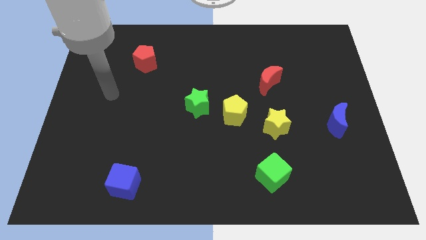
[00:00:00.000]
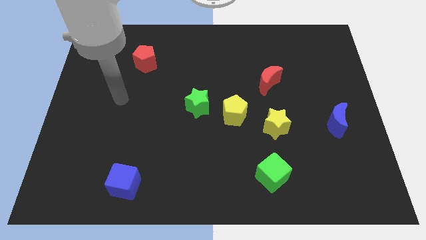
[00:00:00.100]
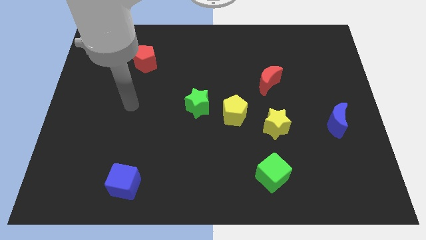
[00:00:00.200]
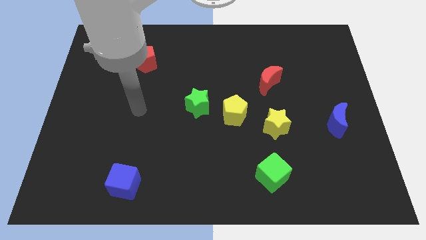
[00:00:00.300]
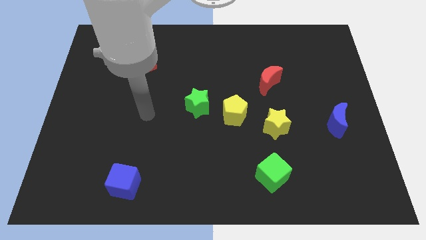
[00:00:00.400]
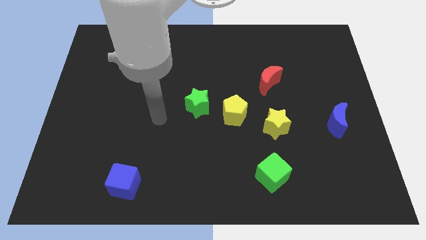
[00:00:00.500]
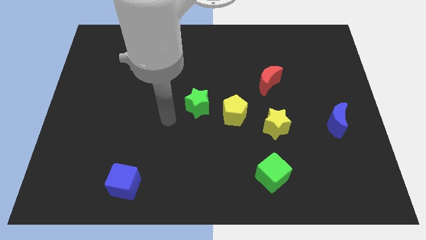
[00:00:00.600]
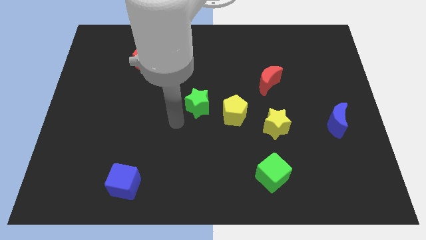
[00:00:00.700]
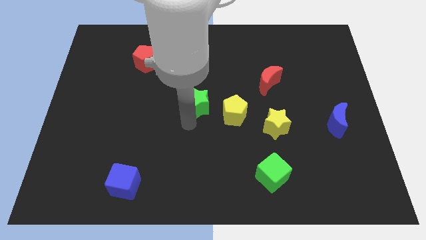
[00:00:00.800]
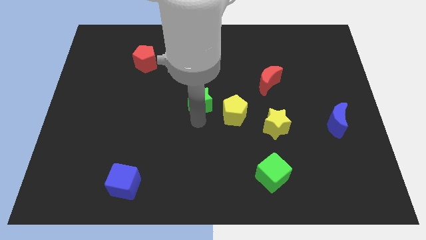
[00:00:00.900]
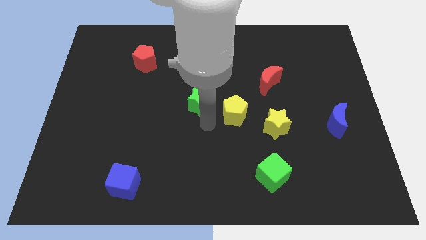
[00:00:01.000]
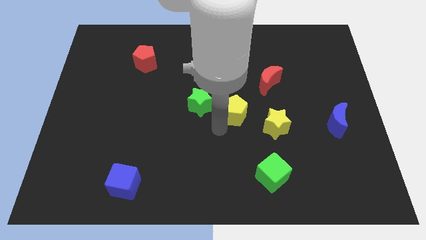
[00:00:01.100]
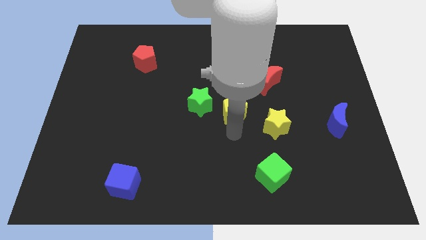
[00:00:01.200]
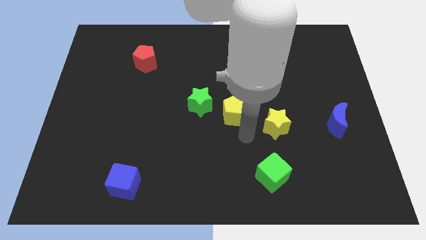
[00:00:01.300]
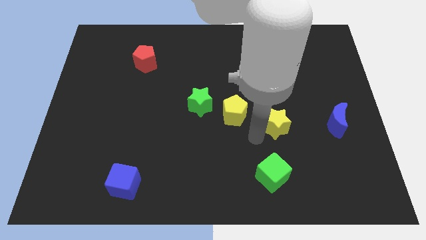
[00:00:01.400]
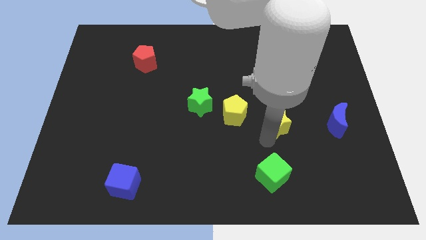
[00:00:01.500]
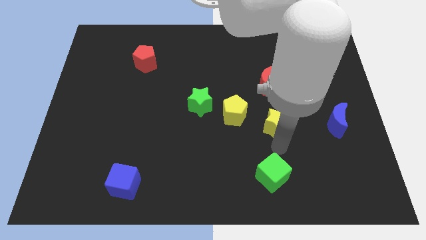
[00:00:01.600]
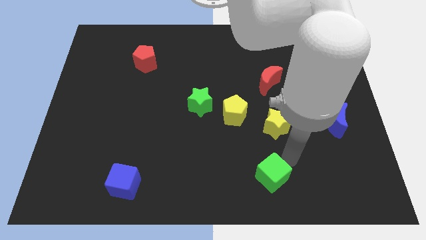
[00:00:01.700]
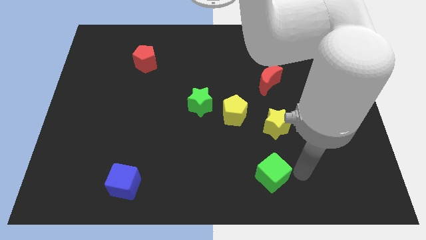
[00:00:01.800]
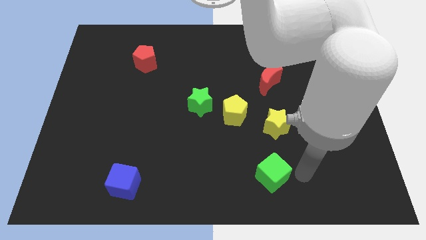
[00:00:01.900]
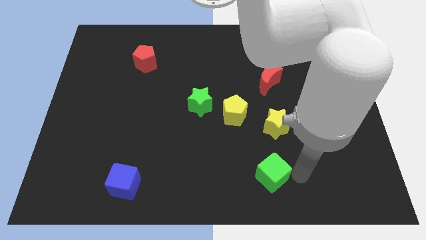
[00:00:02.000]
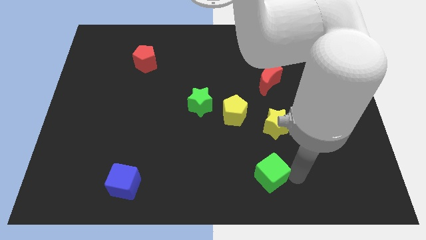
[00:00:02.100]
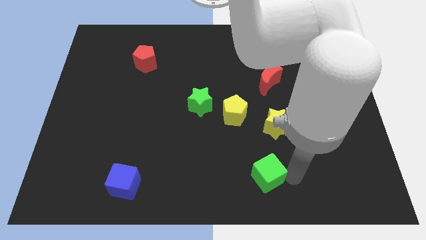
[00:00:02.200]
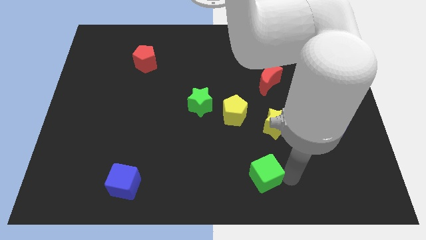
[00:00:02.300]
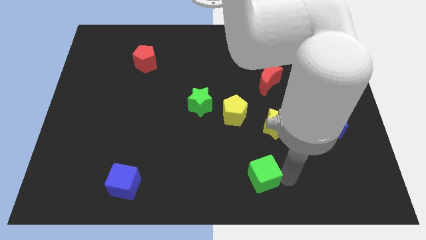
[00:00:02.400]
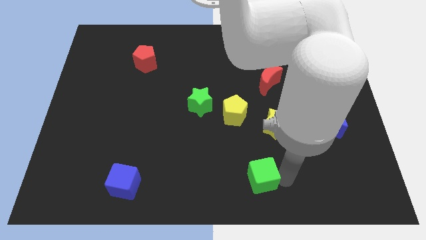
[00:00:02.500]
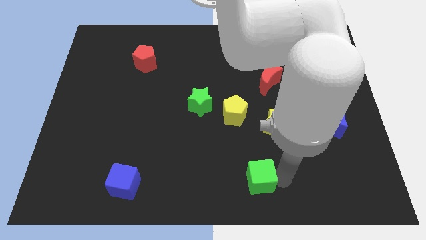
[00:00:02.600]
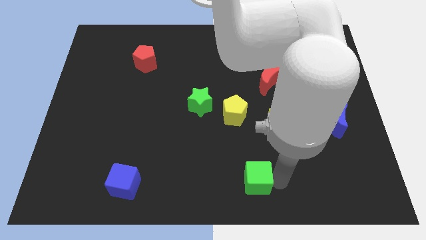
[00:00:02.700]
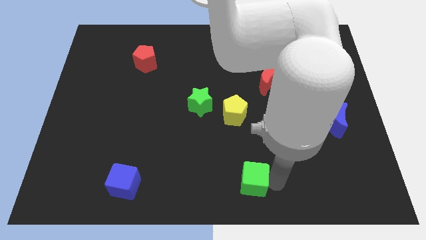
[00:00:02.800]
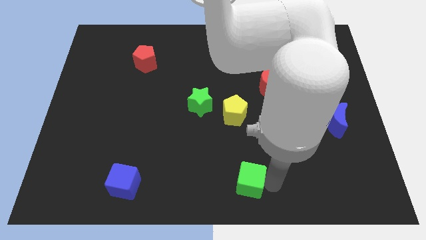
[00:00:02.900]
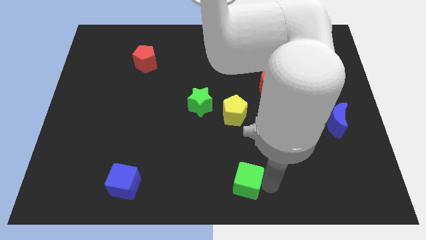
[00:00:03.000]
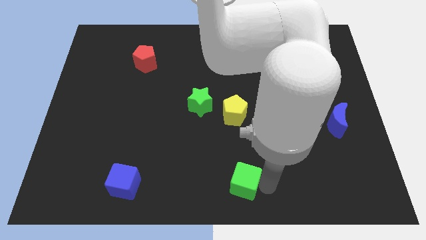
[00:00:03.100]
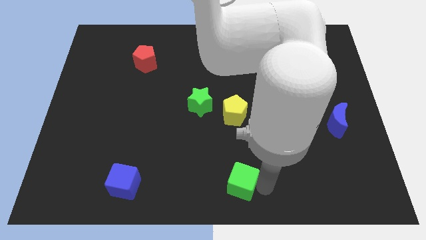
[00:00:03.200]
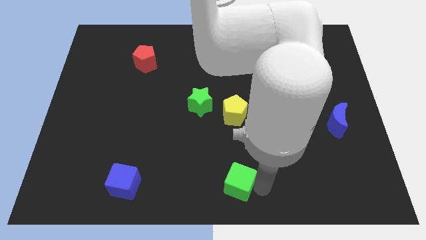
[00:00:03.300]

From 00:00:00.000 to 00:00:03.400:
slide the green cube to the left a little bit

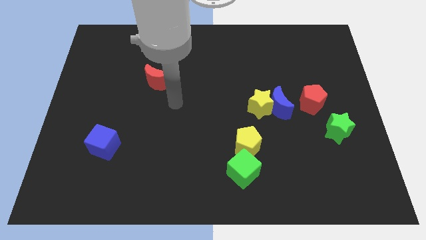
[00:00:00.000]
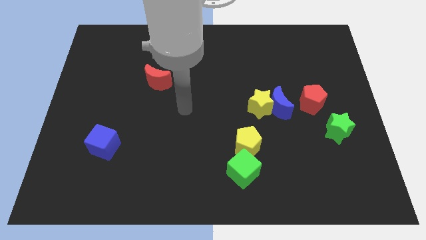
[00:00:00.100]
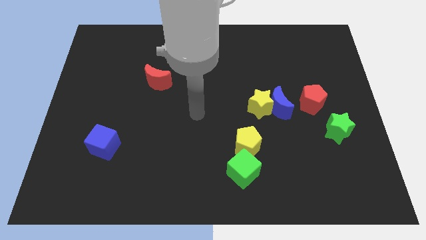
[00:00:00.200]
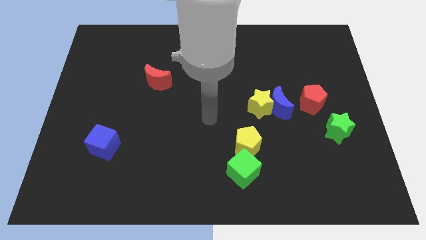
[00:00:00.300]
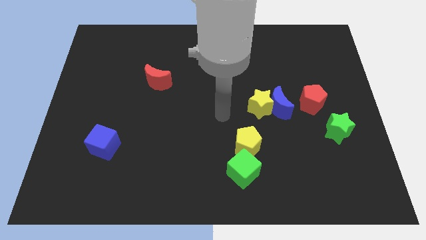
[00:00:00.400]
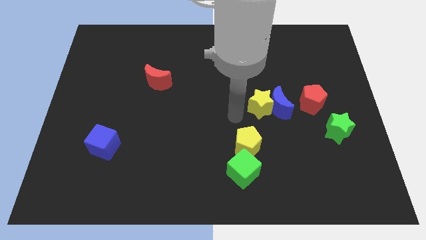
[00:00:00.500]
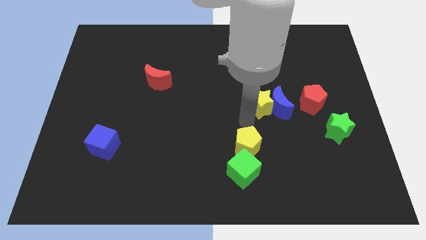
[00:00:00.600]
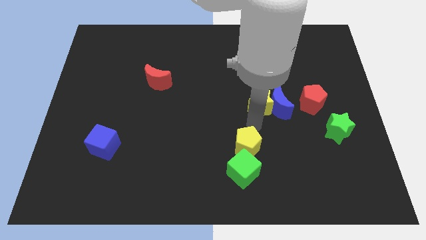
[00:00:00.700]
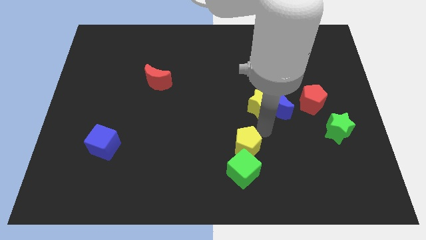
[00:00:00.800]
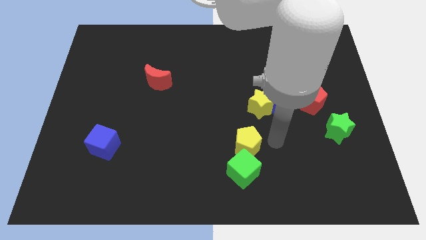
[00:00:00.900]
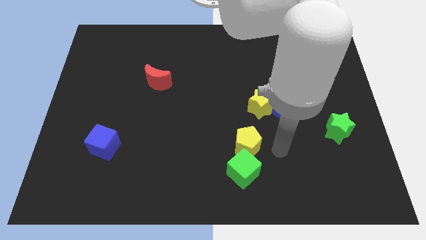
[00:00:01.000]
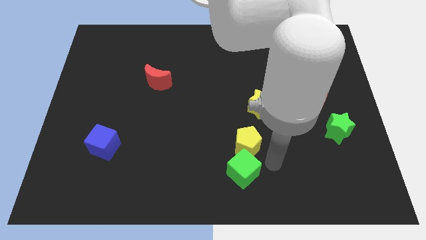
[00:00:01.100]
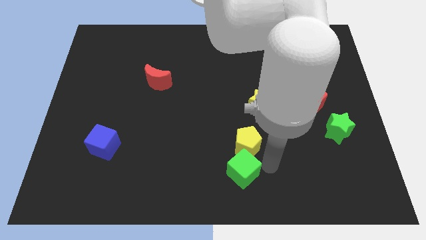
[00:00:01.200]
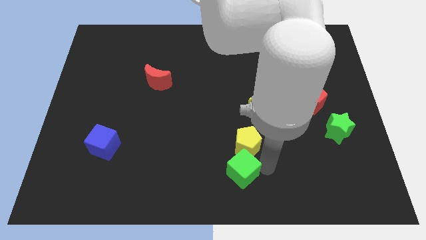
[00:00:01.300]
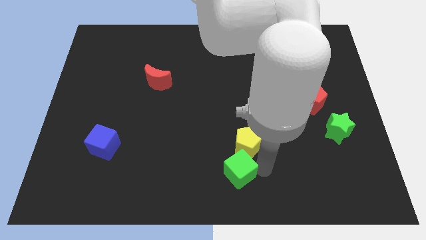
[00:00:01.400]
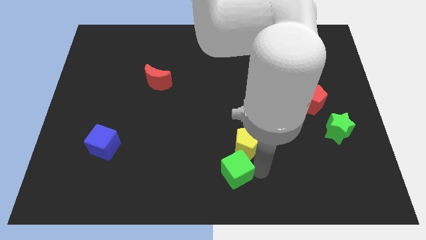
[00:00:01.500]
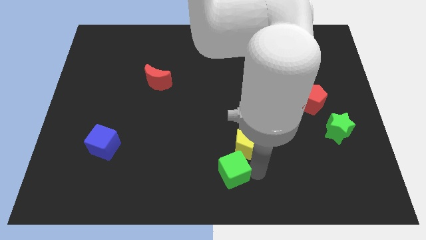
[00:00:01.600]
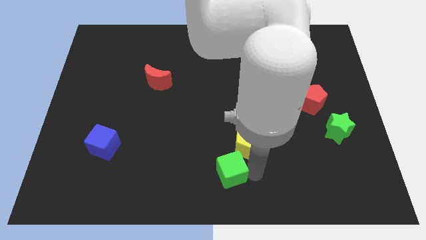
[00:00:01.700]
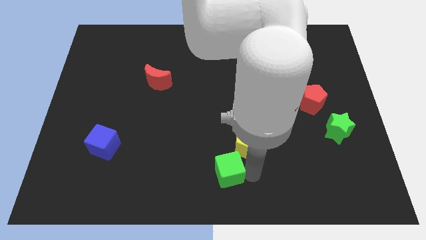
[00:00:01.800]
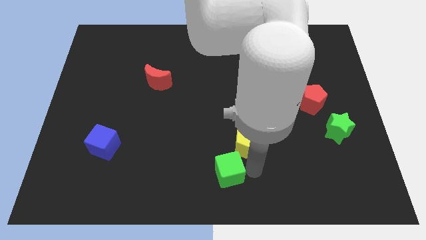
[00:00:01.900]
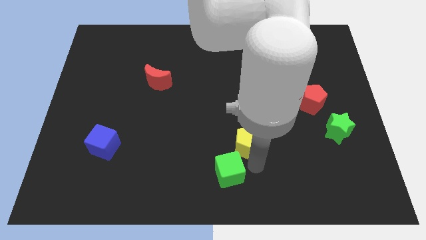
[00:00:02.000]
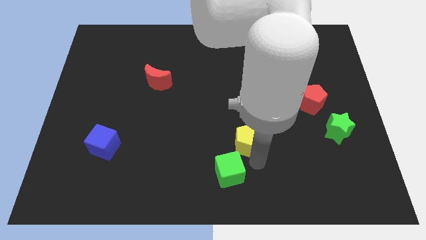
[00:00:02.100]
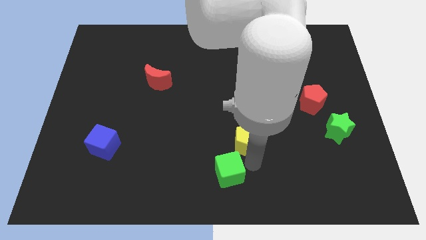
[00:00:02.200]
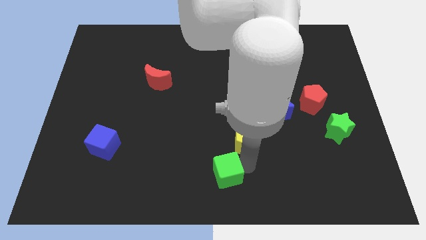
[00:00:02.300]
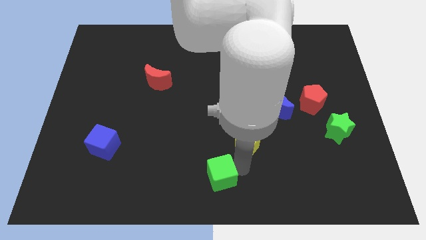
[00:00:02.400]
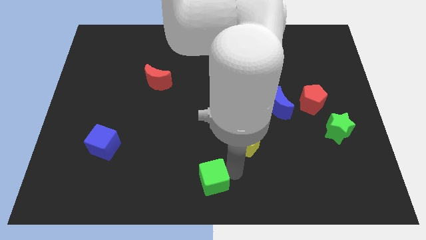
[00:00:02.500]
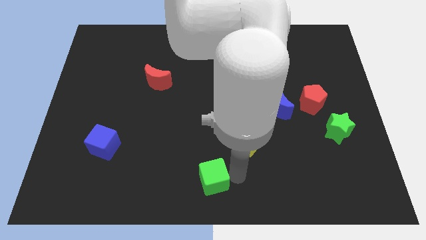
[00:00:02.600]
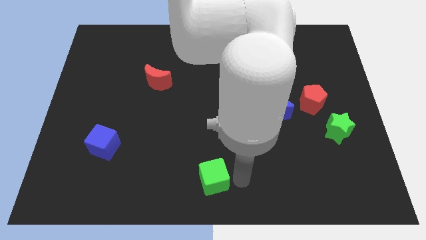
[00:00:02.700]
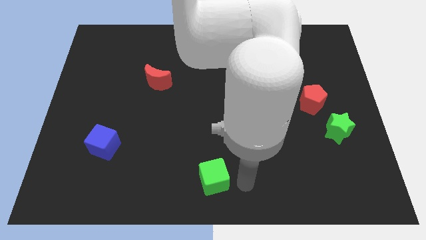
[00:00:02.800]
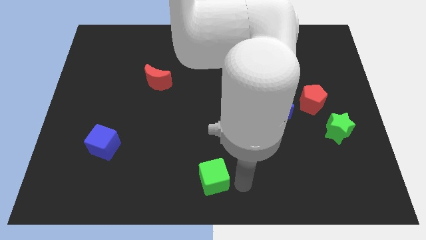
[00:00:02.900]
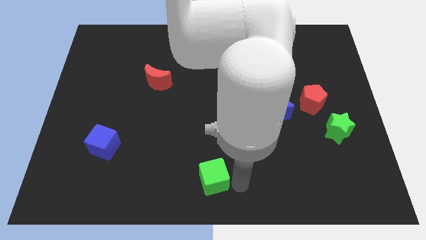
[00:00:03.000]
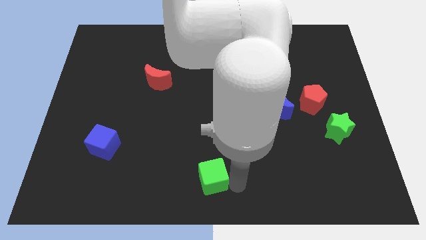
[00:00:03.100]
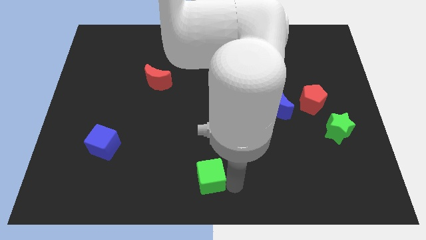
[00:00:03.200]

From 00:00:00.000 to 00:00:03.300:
slightly move the green cube to the left

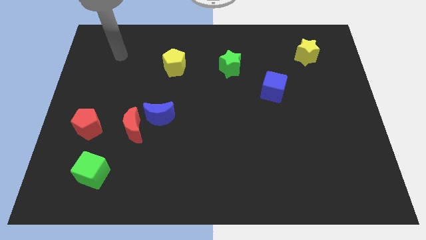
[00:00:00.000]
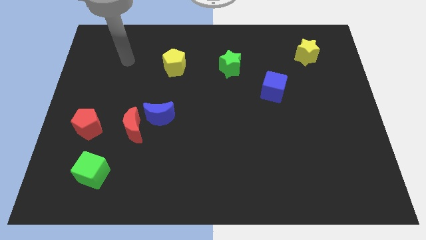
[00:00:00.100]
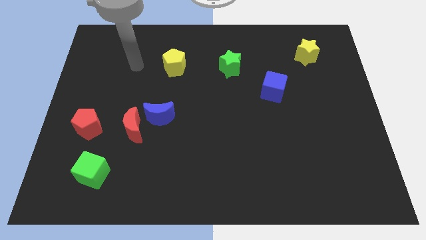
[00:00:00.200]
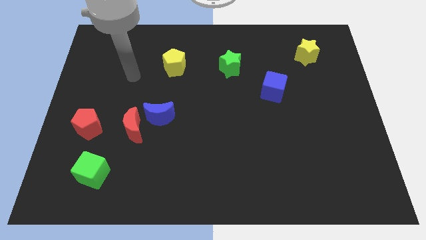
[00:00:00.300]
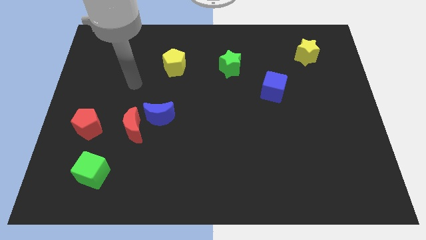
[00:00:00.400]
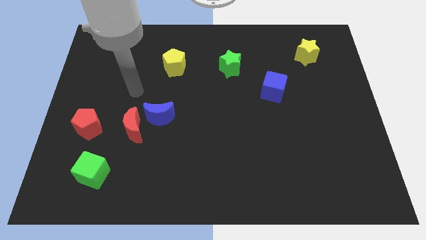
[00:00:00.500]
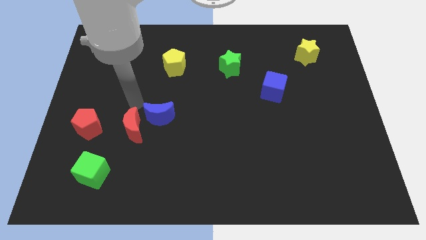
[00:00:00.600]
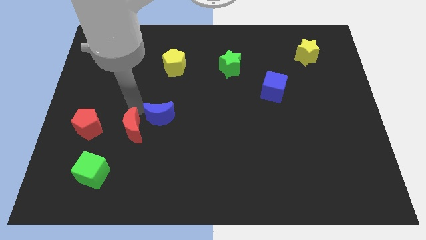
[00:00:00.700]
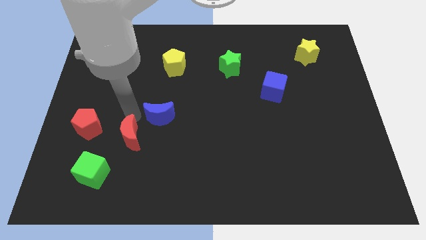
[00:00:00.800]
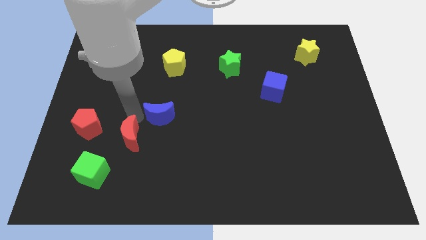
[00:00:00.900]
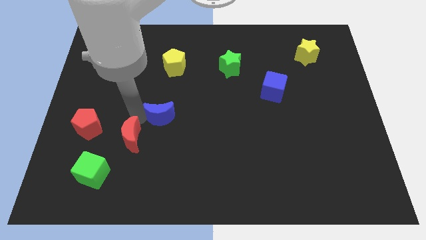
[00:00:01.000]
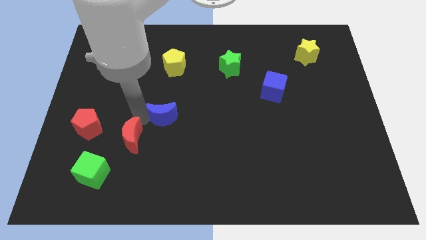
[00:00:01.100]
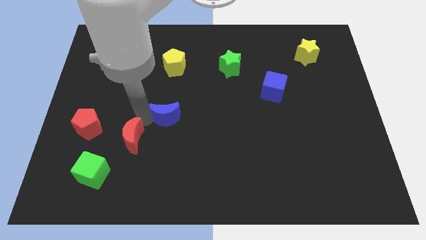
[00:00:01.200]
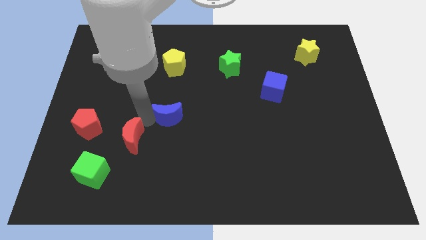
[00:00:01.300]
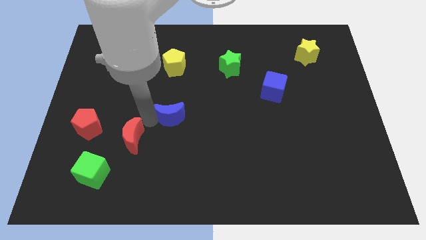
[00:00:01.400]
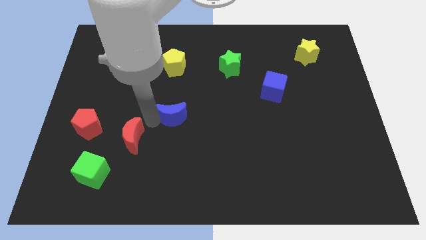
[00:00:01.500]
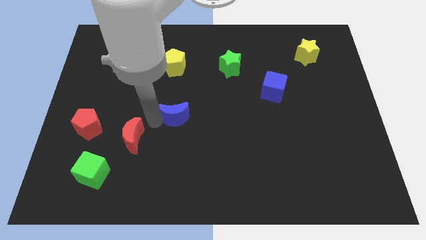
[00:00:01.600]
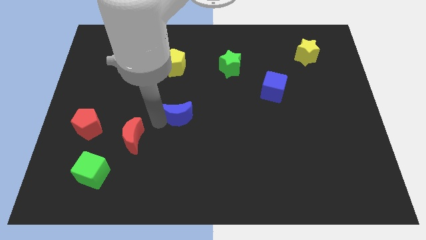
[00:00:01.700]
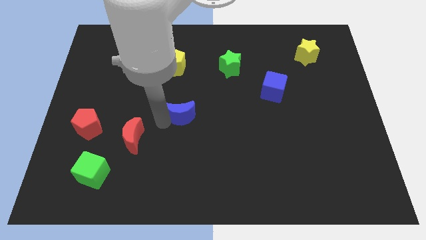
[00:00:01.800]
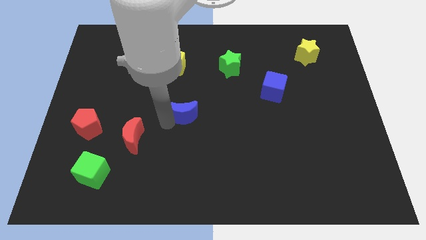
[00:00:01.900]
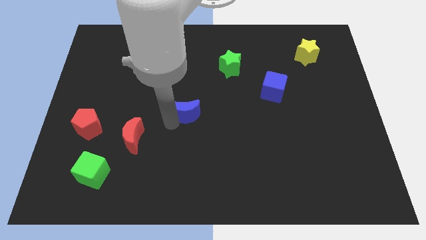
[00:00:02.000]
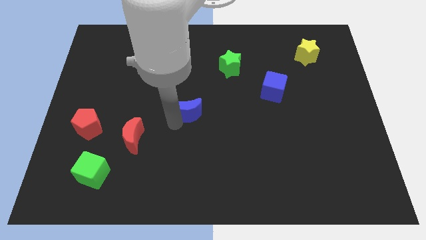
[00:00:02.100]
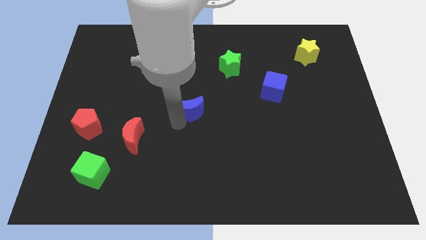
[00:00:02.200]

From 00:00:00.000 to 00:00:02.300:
push the blue moon to the right a little
